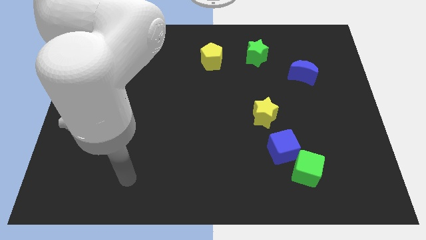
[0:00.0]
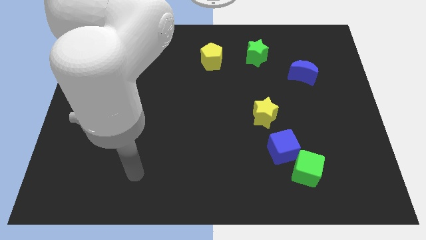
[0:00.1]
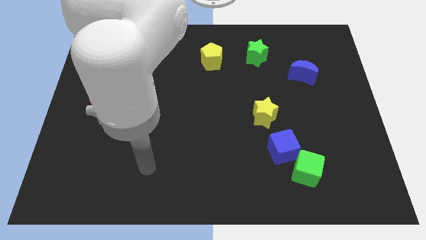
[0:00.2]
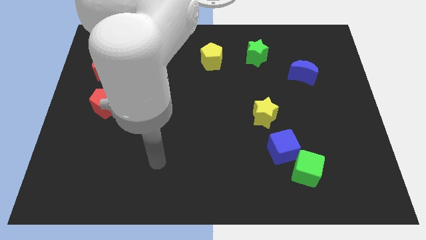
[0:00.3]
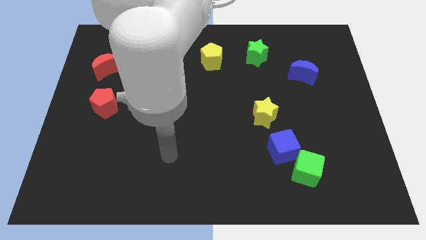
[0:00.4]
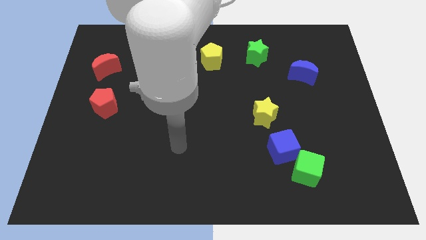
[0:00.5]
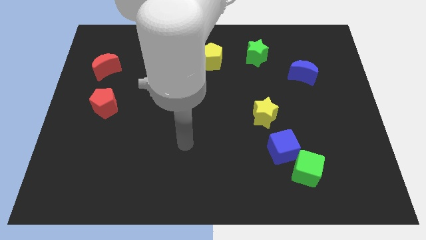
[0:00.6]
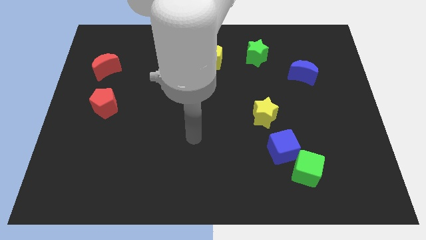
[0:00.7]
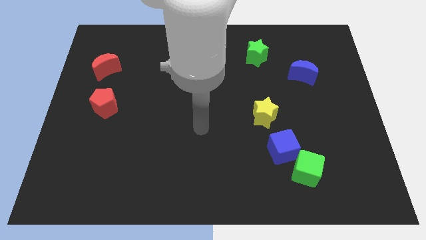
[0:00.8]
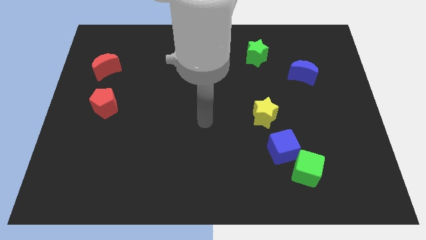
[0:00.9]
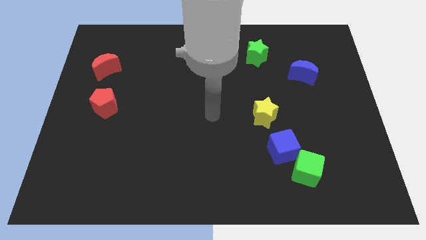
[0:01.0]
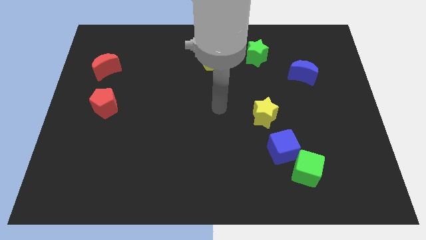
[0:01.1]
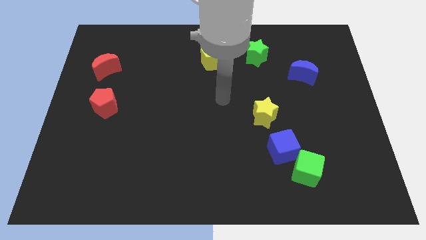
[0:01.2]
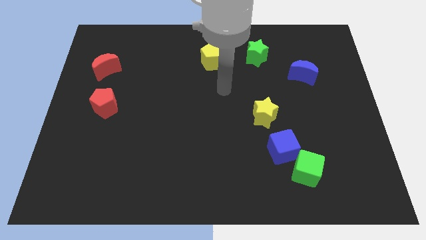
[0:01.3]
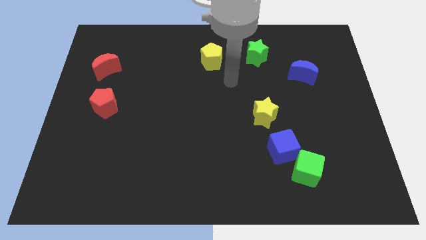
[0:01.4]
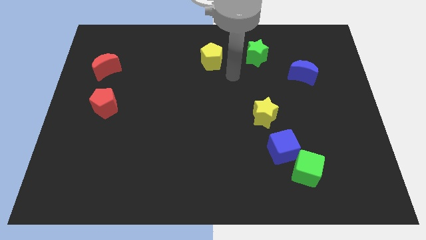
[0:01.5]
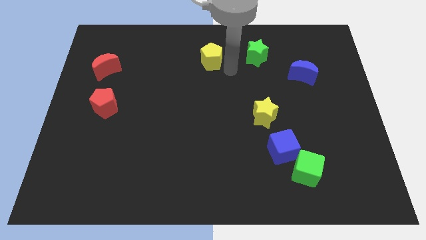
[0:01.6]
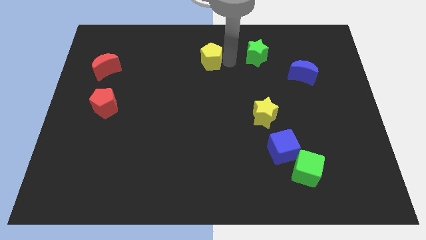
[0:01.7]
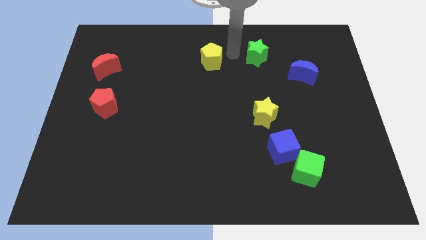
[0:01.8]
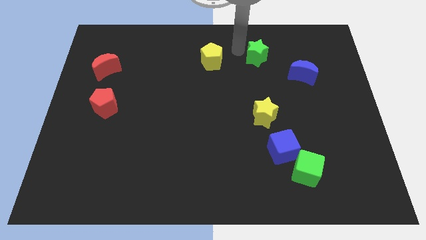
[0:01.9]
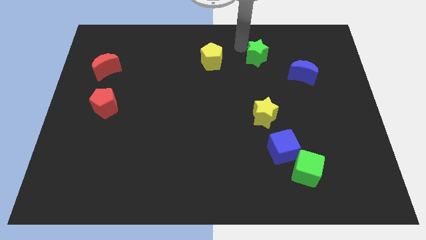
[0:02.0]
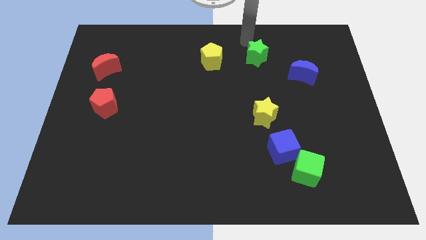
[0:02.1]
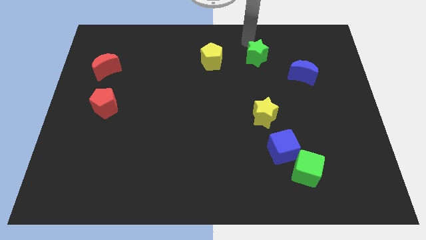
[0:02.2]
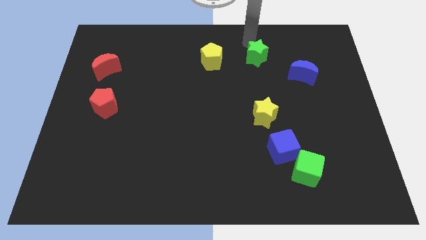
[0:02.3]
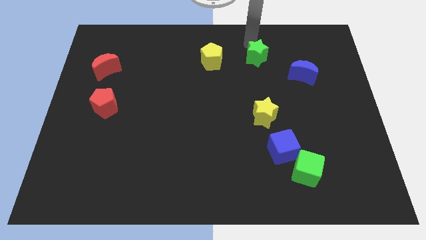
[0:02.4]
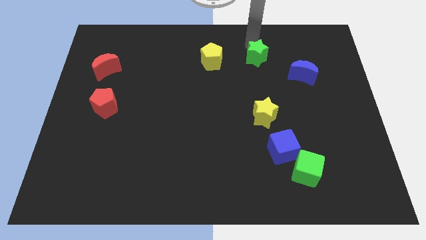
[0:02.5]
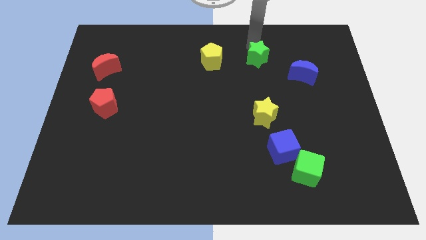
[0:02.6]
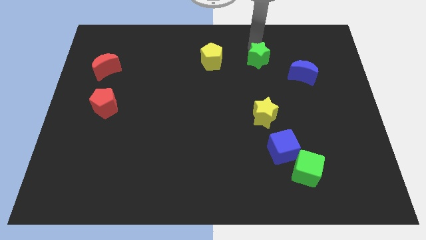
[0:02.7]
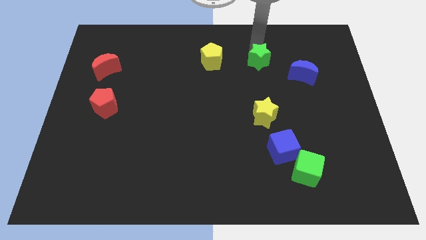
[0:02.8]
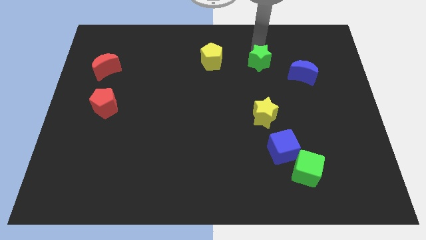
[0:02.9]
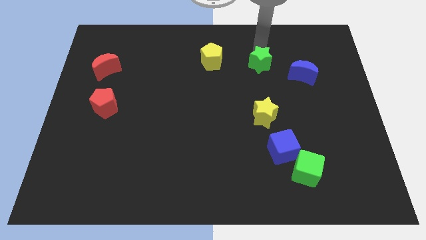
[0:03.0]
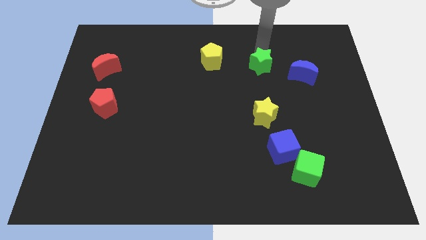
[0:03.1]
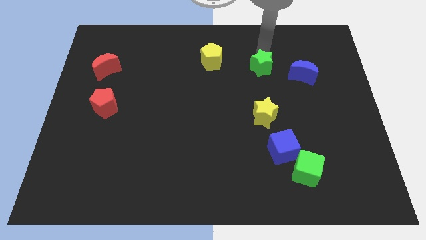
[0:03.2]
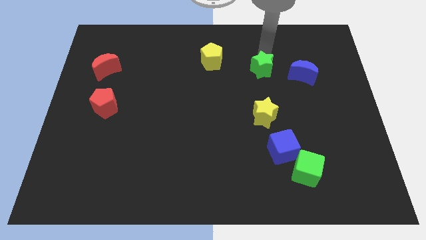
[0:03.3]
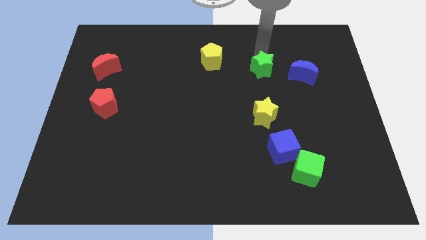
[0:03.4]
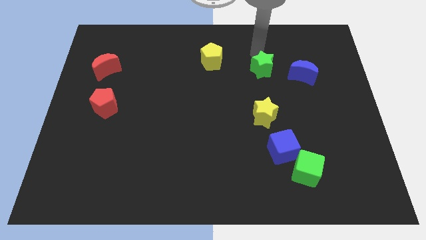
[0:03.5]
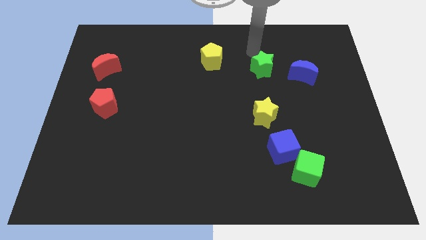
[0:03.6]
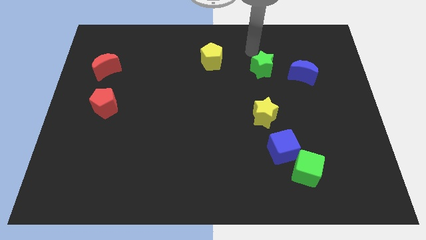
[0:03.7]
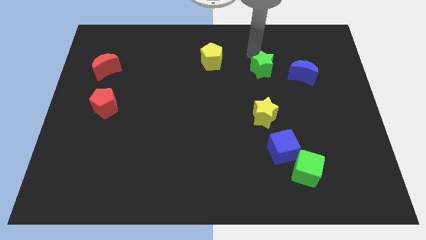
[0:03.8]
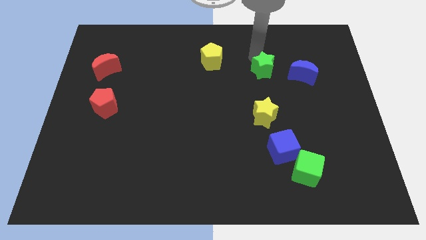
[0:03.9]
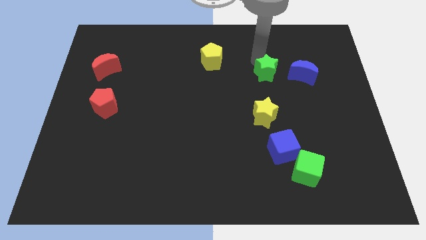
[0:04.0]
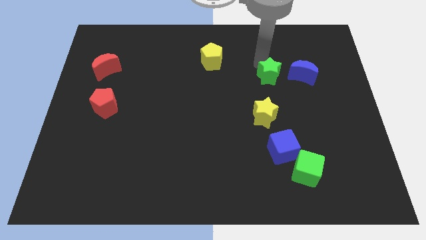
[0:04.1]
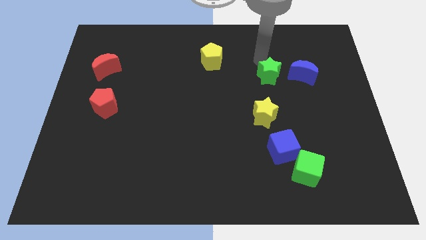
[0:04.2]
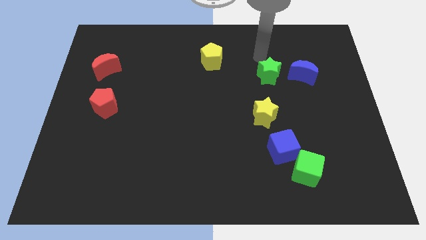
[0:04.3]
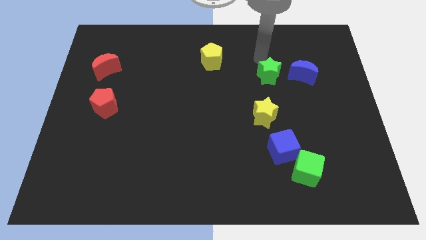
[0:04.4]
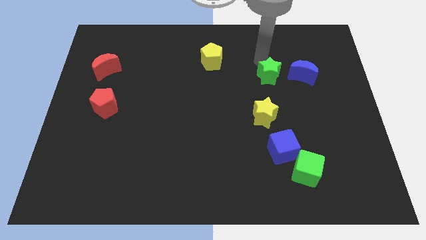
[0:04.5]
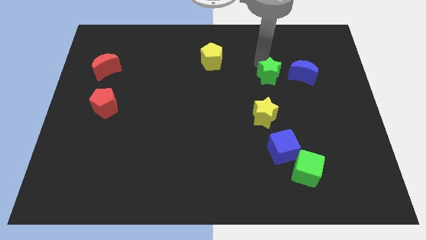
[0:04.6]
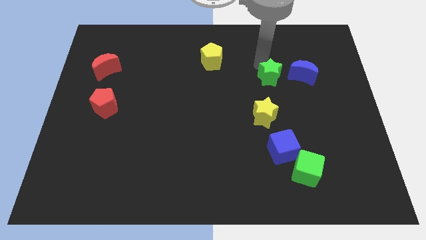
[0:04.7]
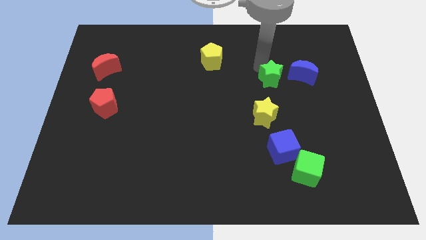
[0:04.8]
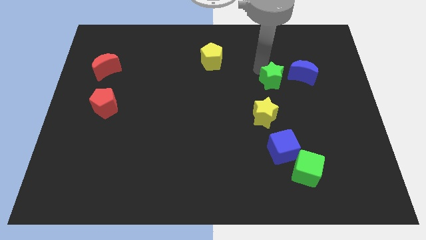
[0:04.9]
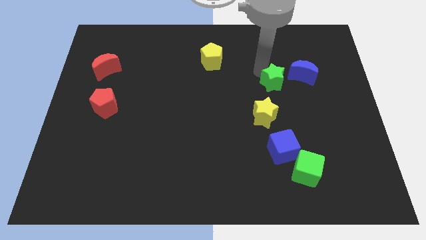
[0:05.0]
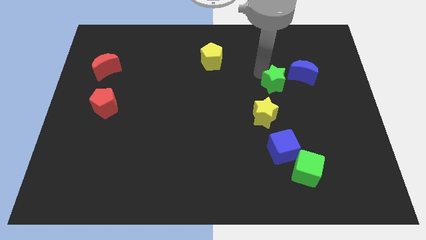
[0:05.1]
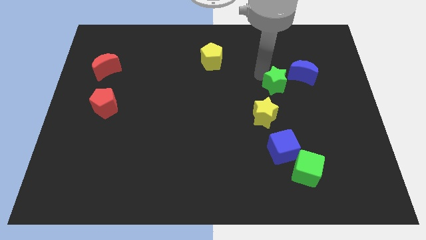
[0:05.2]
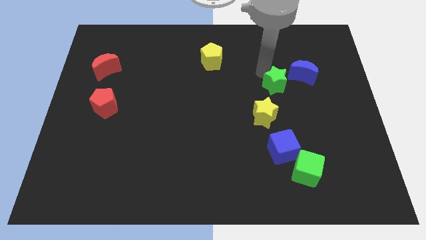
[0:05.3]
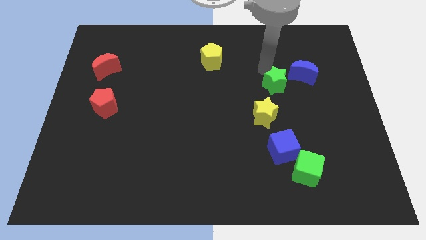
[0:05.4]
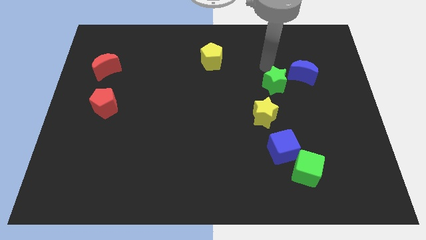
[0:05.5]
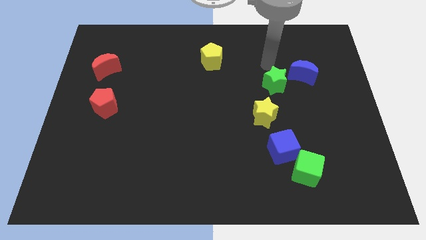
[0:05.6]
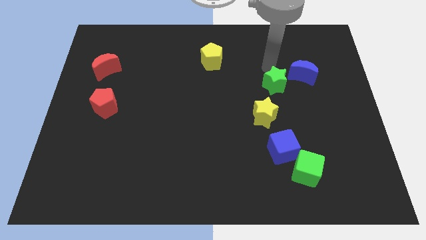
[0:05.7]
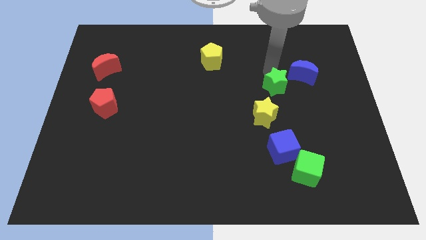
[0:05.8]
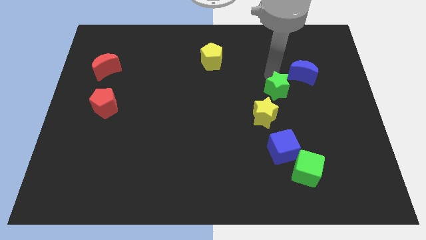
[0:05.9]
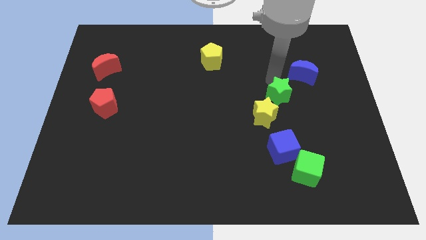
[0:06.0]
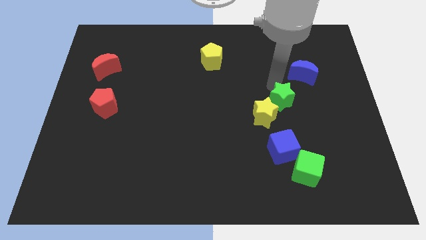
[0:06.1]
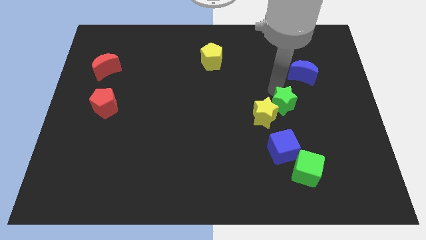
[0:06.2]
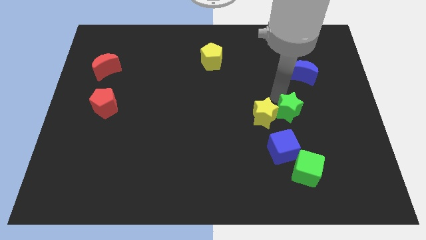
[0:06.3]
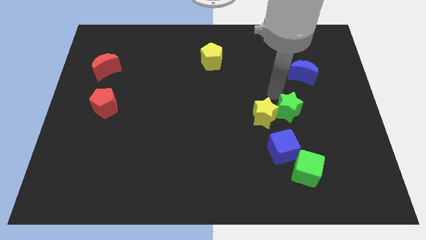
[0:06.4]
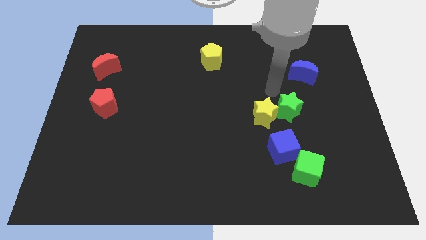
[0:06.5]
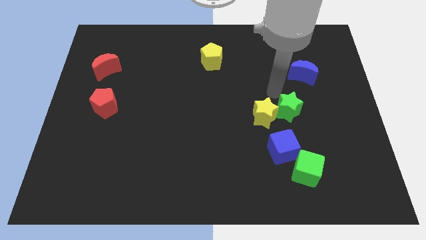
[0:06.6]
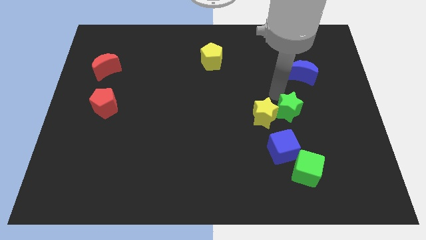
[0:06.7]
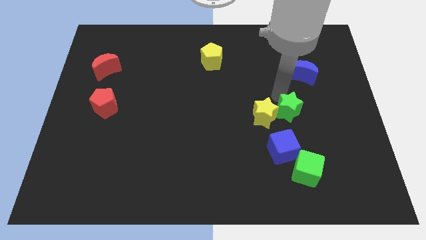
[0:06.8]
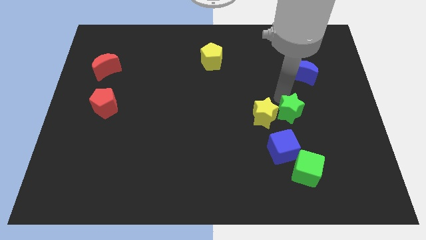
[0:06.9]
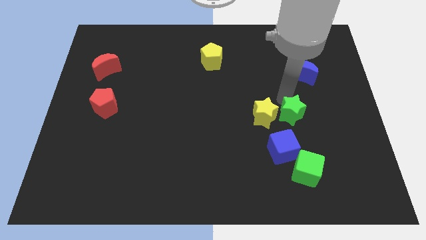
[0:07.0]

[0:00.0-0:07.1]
slide the green star to the top right of the blue cube
